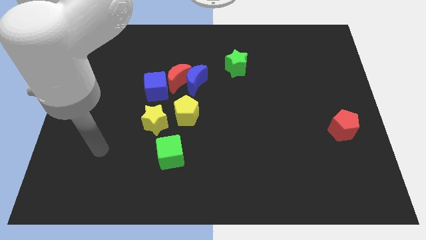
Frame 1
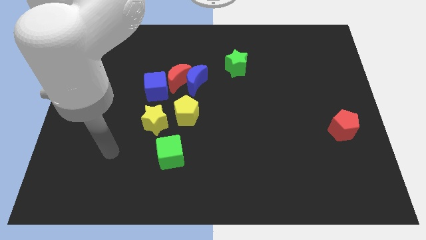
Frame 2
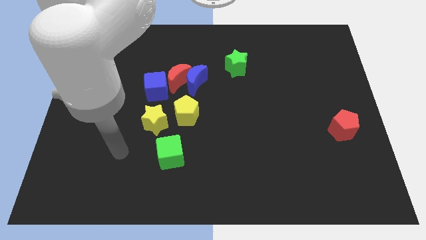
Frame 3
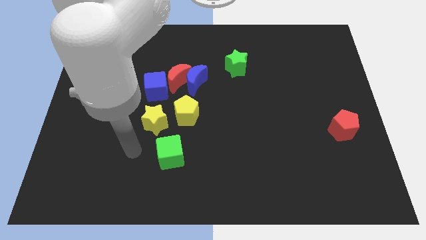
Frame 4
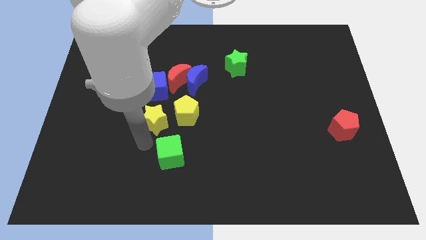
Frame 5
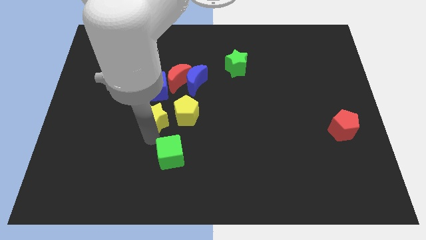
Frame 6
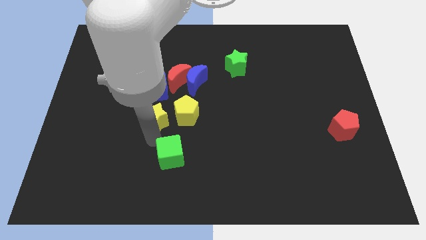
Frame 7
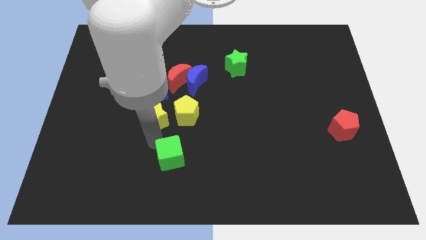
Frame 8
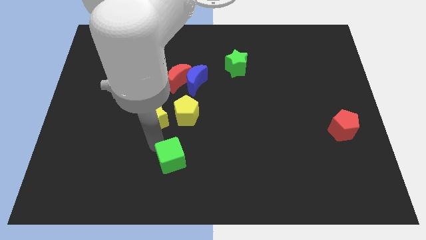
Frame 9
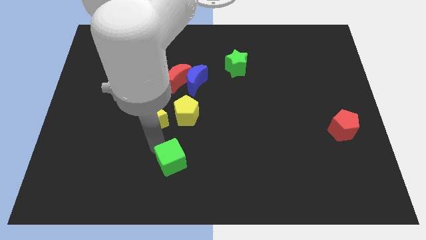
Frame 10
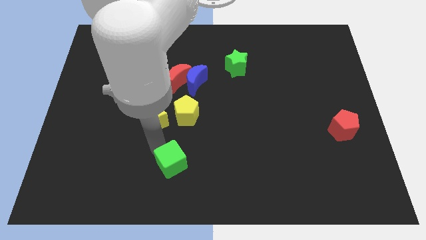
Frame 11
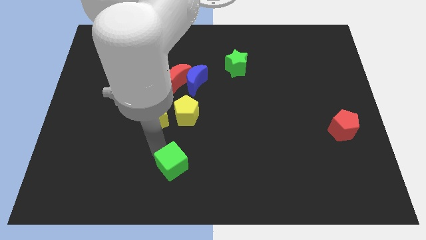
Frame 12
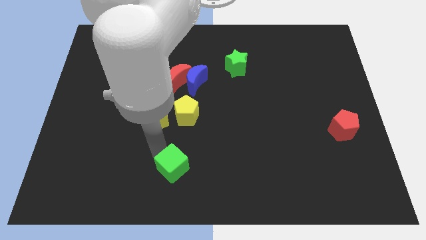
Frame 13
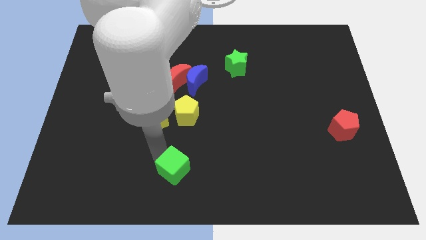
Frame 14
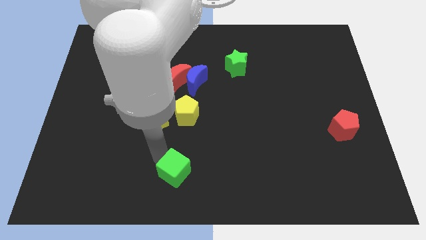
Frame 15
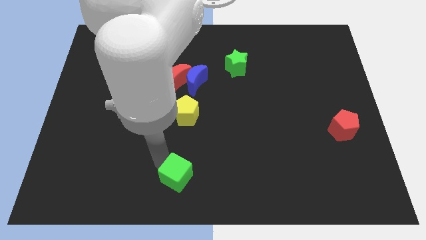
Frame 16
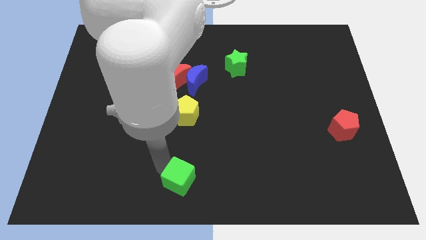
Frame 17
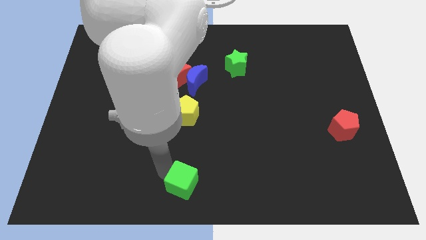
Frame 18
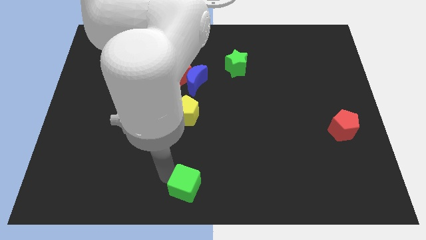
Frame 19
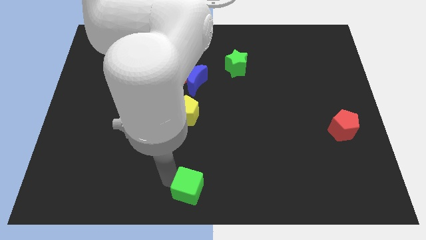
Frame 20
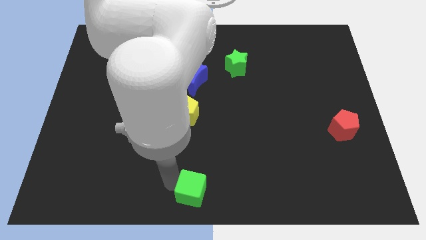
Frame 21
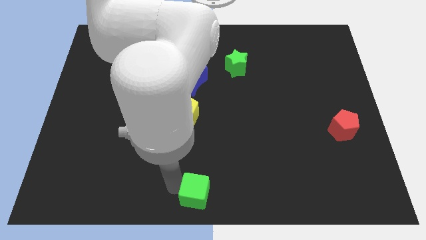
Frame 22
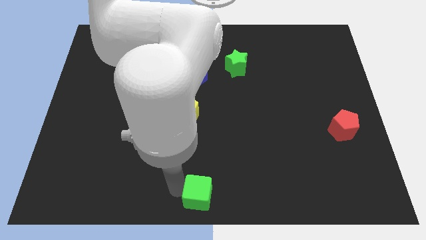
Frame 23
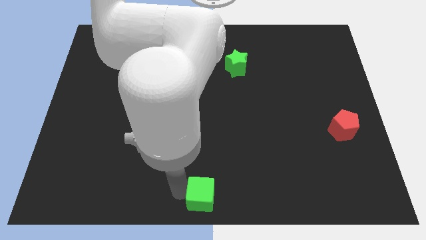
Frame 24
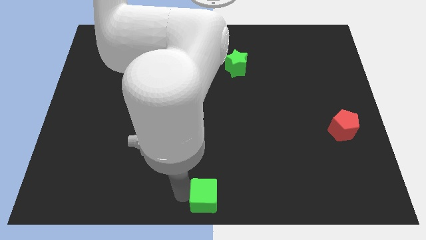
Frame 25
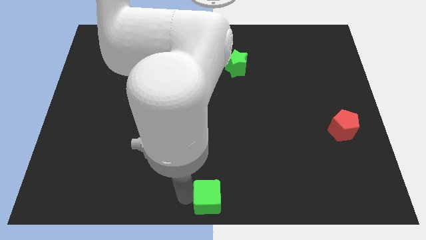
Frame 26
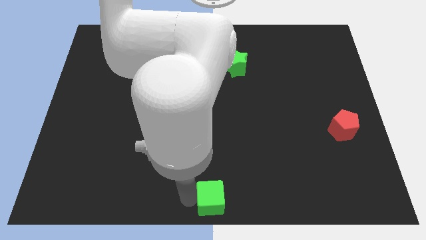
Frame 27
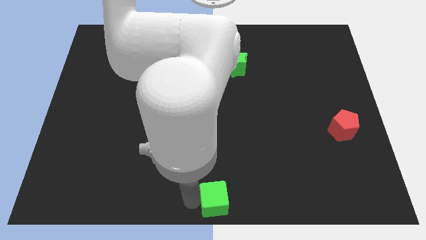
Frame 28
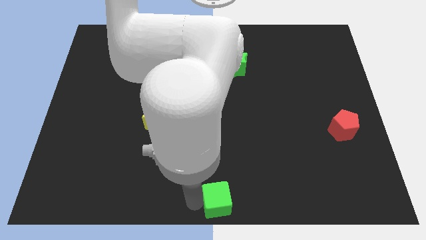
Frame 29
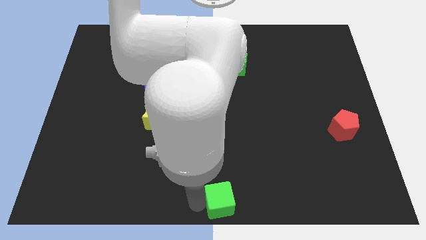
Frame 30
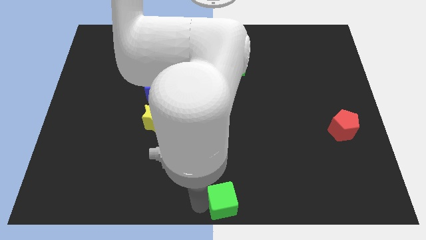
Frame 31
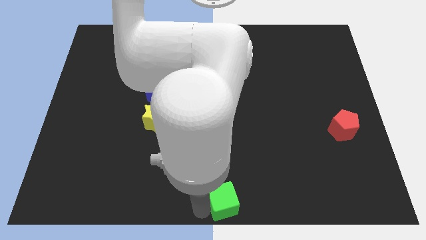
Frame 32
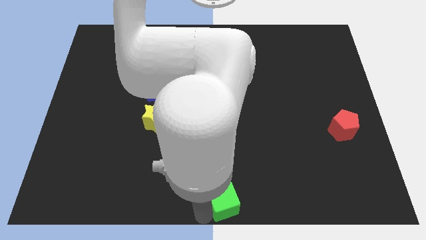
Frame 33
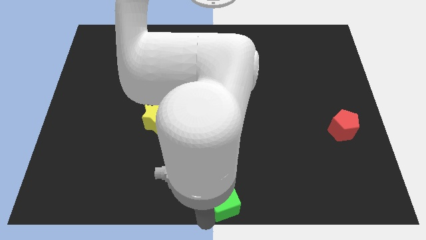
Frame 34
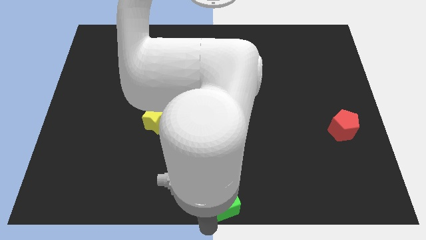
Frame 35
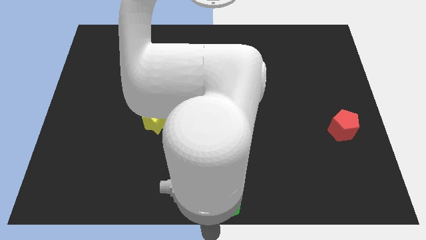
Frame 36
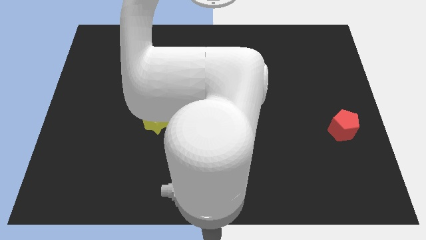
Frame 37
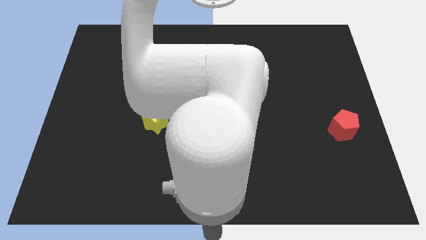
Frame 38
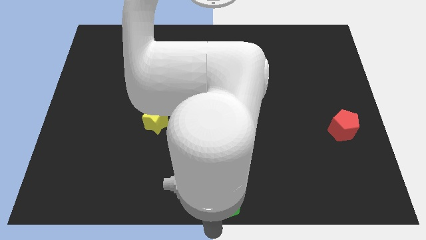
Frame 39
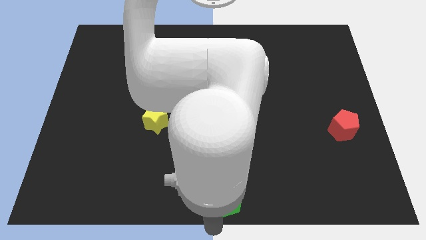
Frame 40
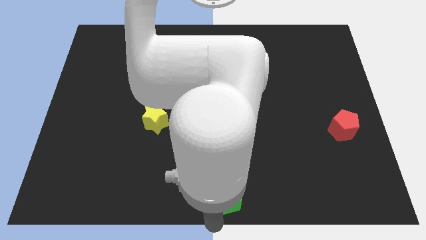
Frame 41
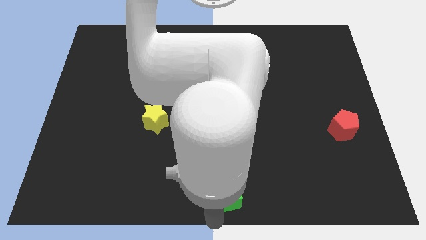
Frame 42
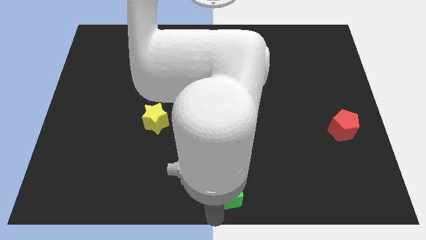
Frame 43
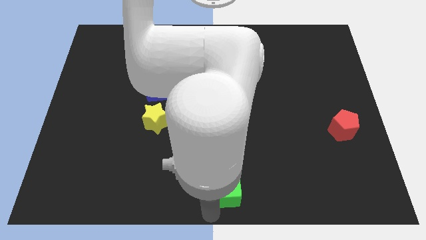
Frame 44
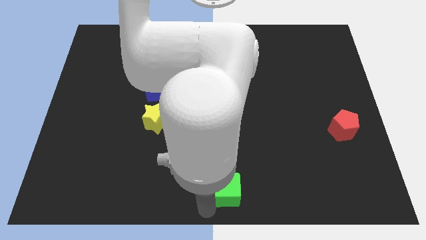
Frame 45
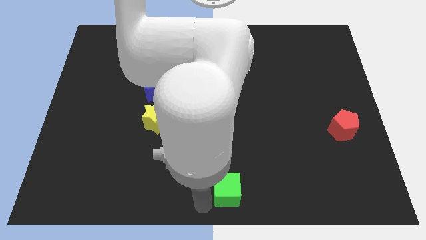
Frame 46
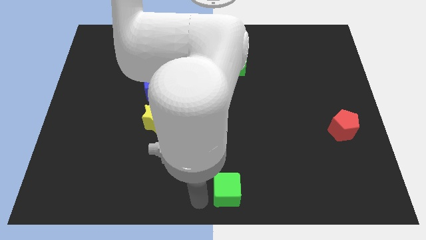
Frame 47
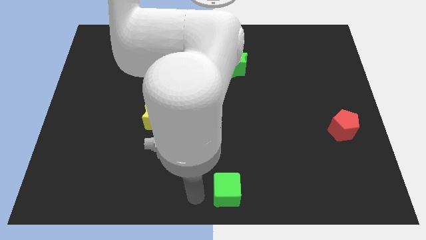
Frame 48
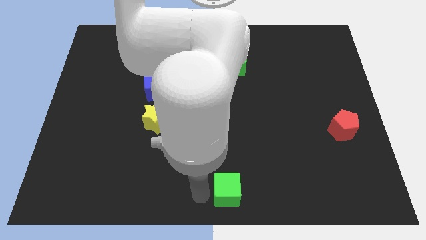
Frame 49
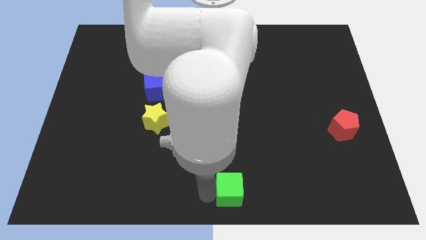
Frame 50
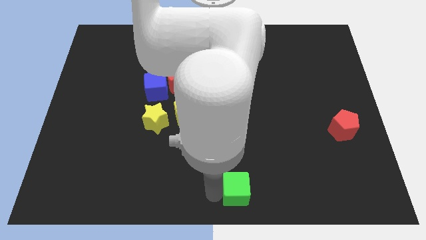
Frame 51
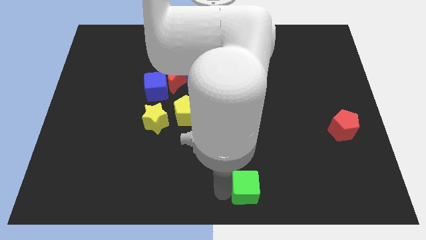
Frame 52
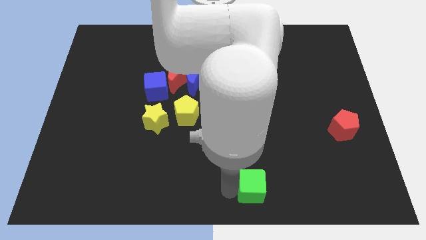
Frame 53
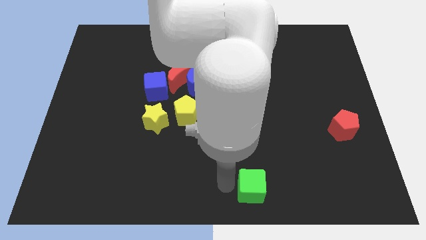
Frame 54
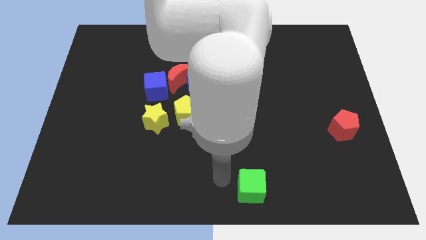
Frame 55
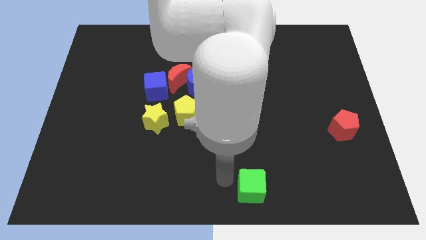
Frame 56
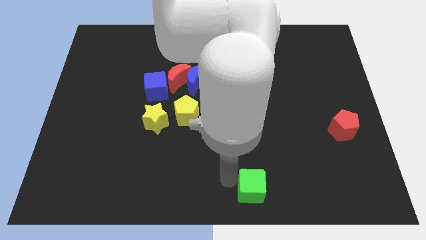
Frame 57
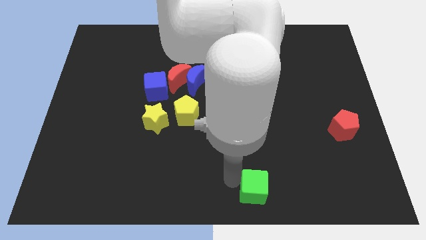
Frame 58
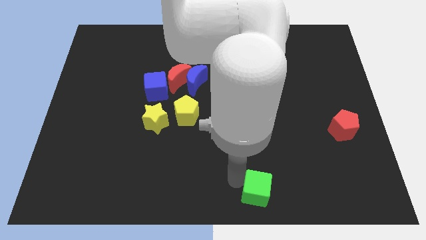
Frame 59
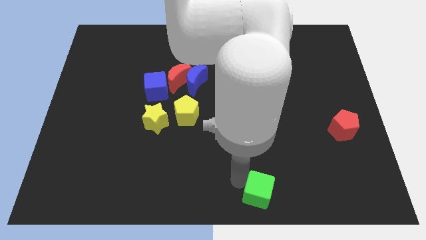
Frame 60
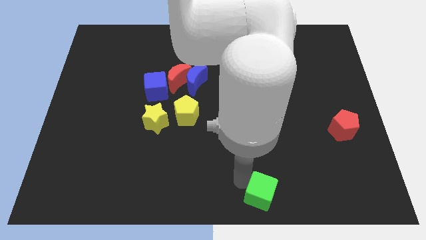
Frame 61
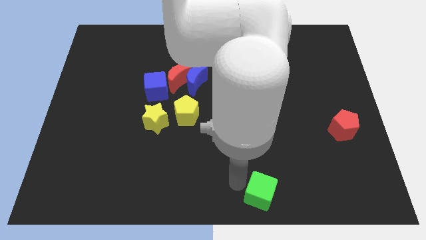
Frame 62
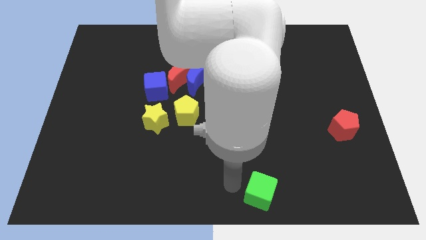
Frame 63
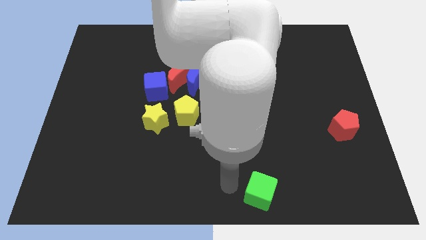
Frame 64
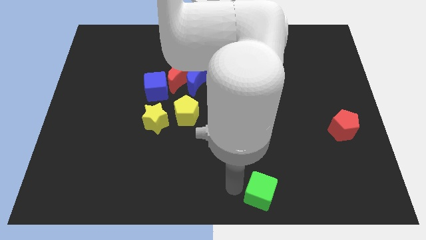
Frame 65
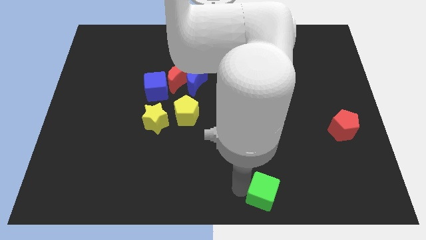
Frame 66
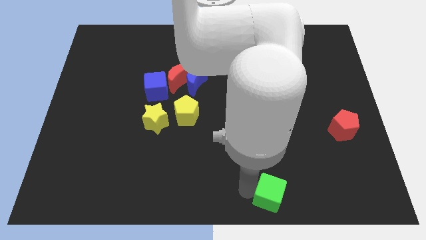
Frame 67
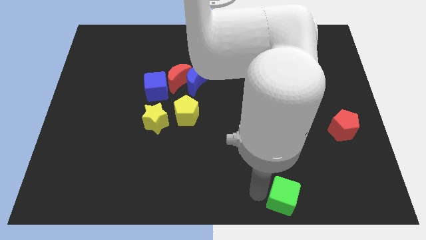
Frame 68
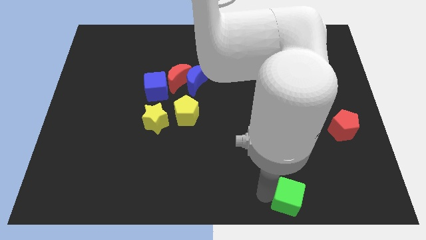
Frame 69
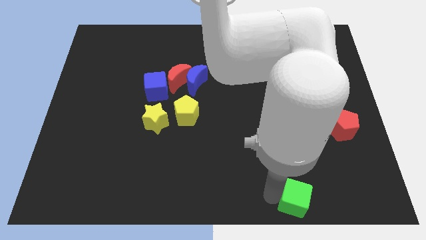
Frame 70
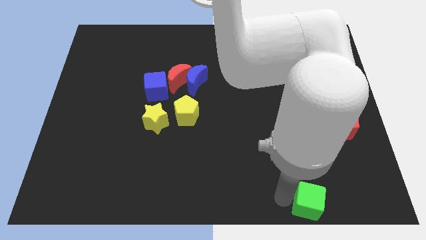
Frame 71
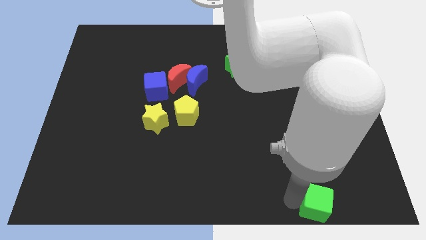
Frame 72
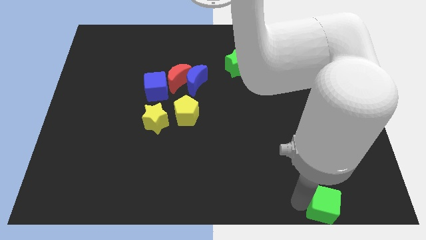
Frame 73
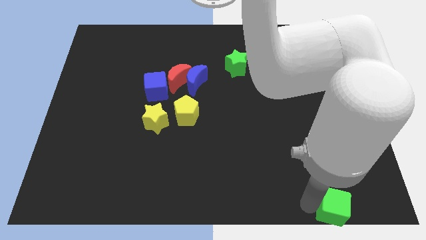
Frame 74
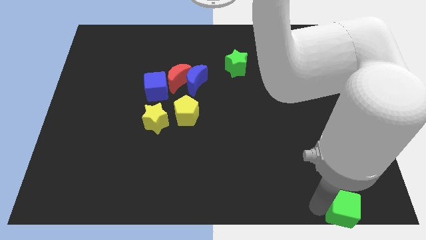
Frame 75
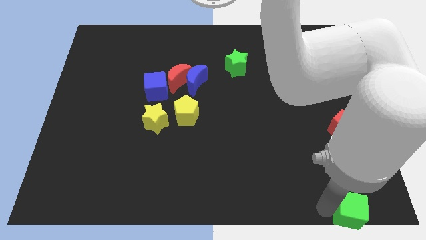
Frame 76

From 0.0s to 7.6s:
move the green cube to the bottom right

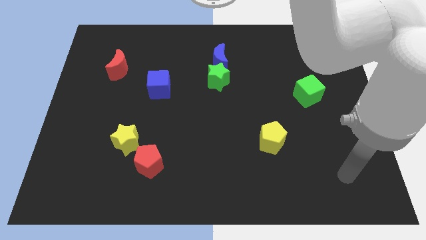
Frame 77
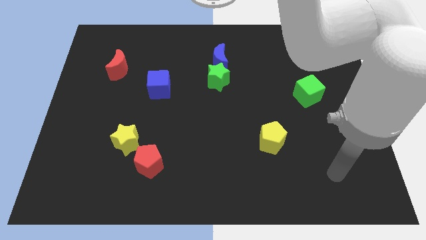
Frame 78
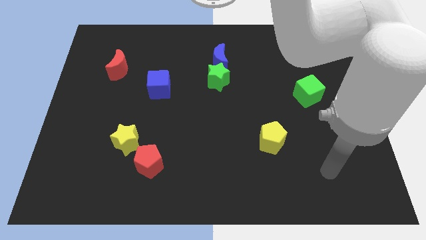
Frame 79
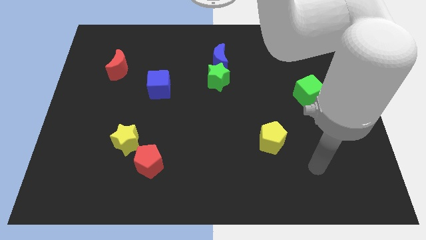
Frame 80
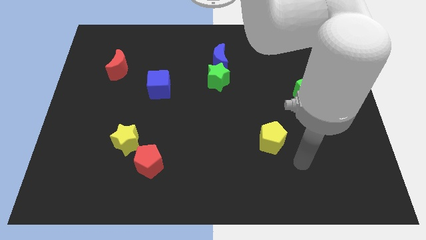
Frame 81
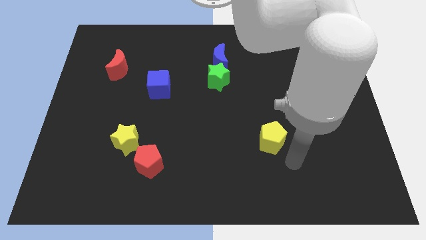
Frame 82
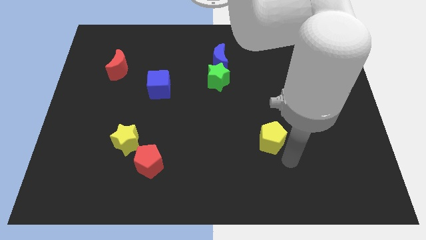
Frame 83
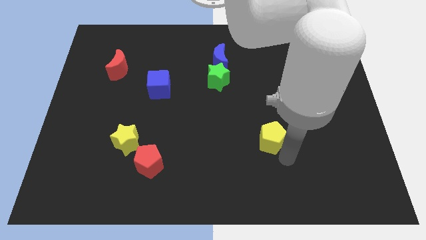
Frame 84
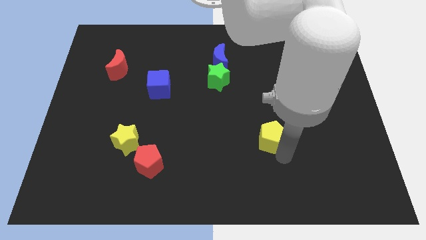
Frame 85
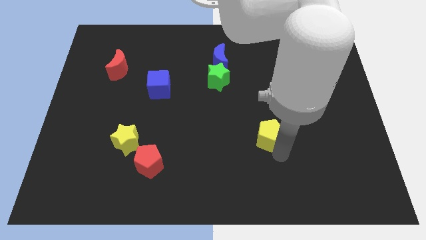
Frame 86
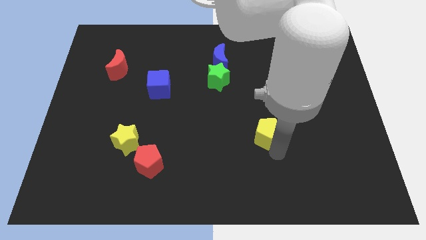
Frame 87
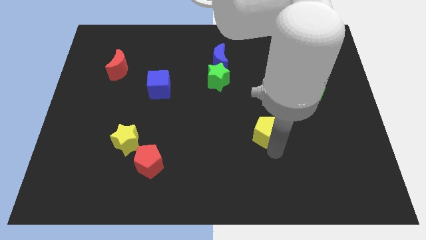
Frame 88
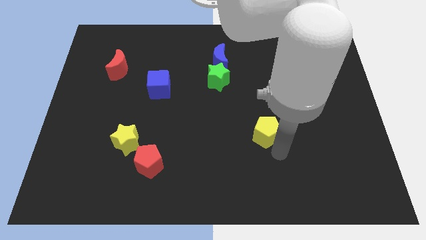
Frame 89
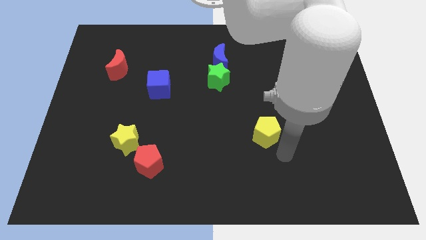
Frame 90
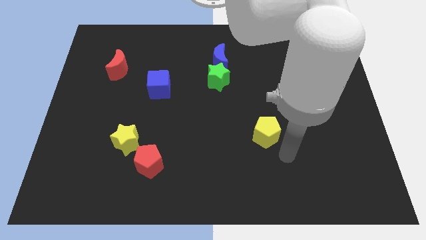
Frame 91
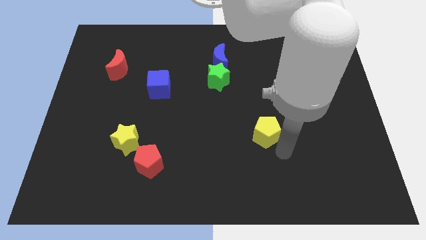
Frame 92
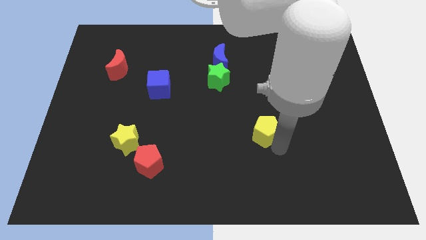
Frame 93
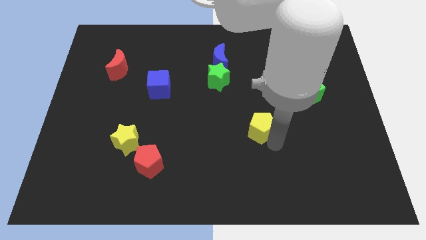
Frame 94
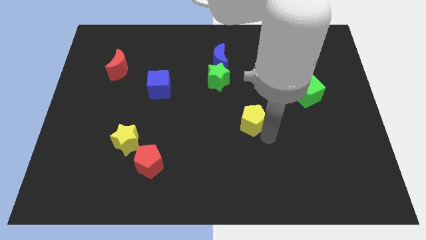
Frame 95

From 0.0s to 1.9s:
move the yellow pentagon to the middle
